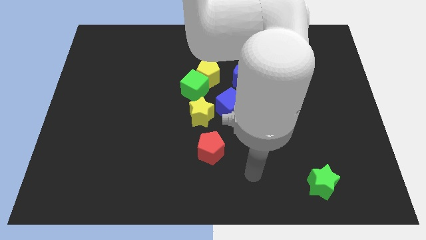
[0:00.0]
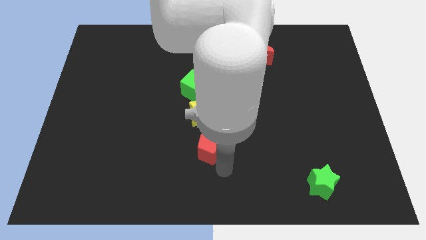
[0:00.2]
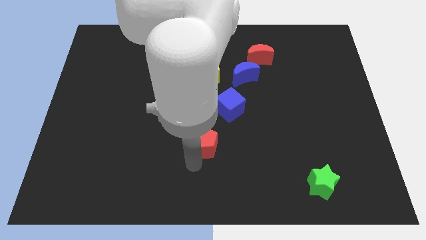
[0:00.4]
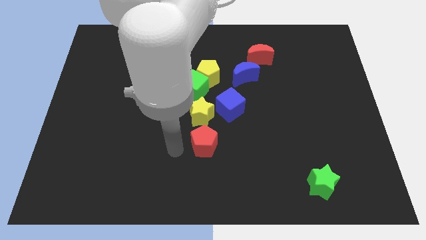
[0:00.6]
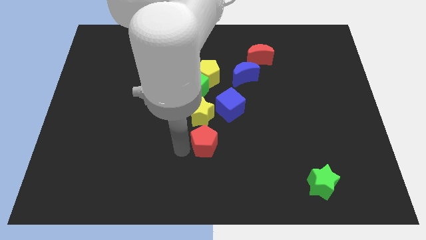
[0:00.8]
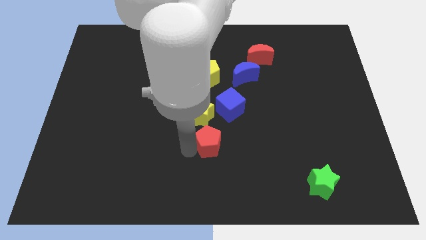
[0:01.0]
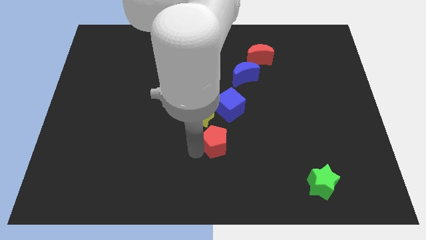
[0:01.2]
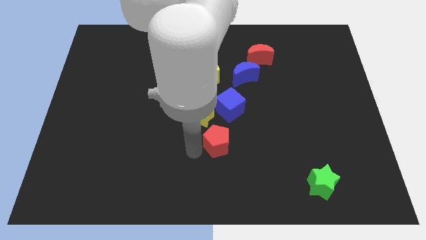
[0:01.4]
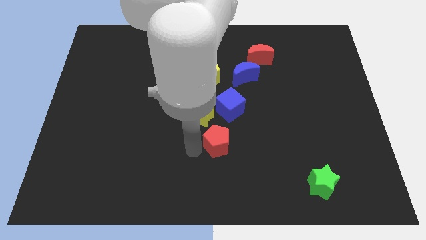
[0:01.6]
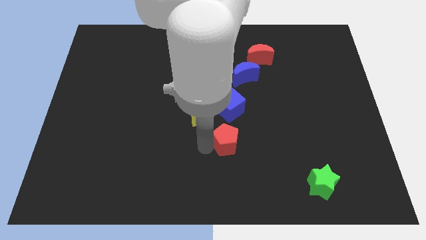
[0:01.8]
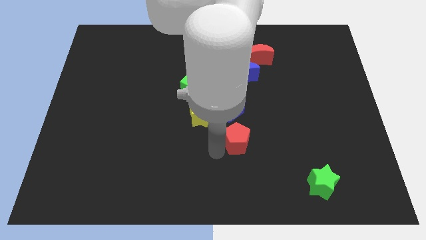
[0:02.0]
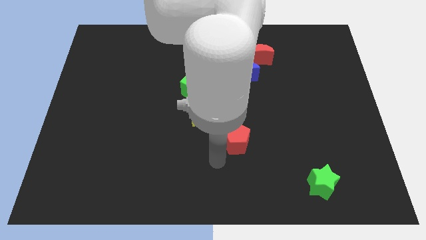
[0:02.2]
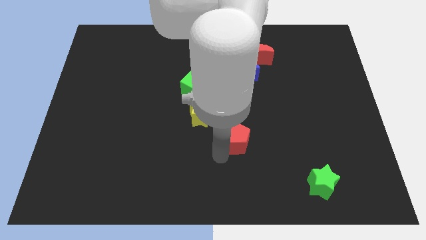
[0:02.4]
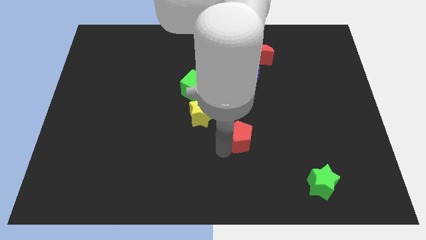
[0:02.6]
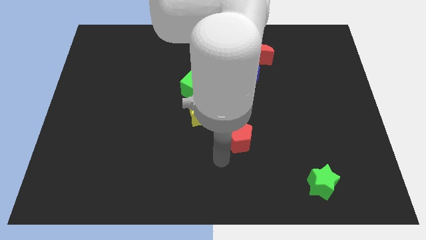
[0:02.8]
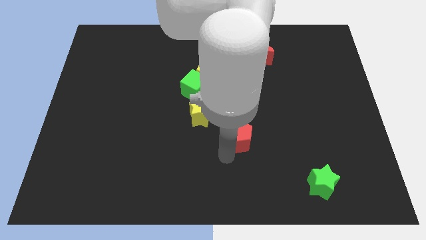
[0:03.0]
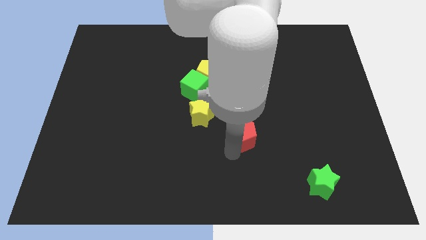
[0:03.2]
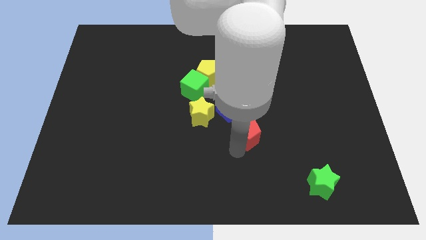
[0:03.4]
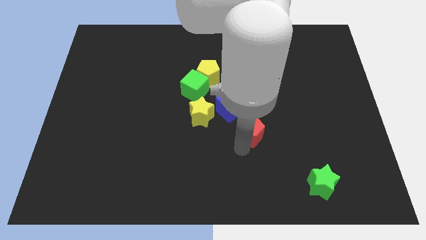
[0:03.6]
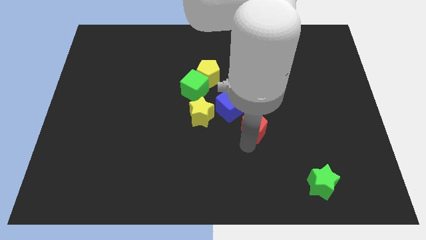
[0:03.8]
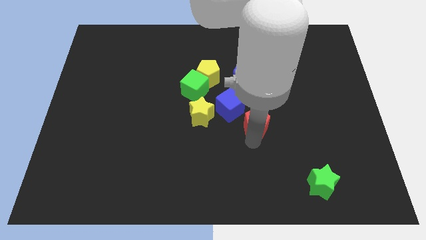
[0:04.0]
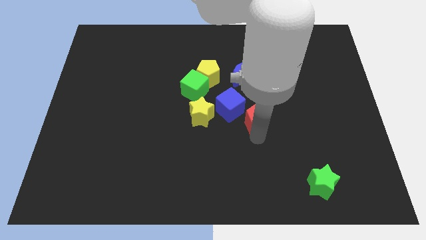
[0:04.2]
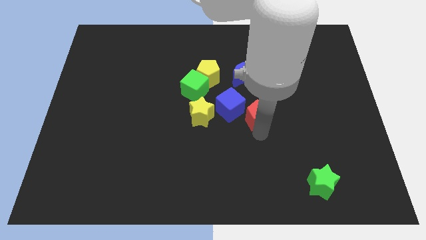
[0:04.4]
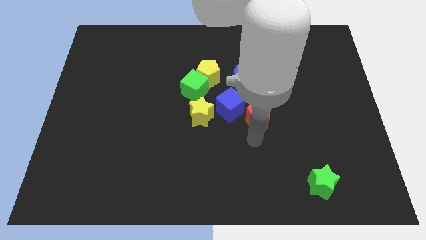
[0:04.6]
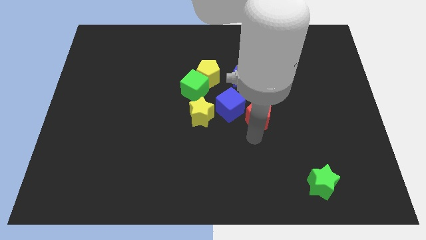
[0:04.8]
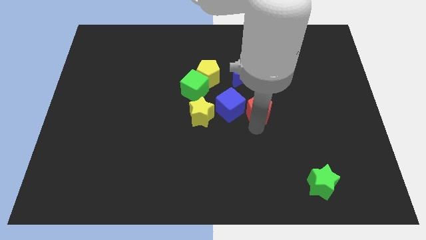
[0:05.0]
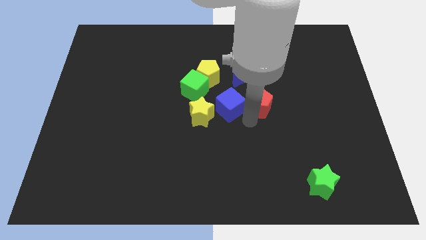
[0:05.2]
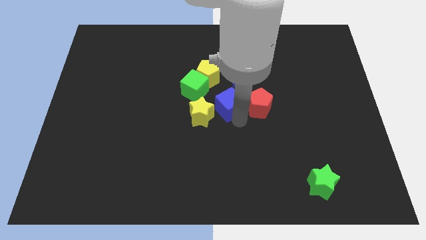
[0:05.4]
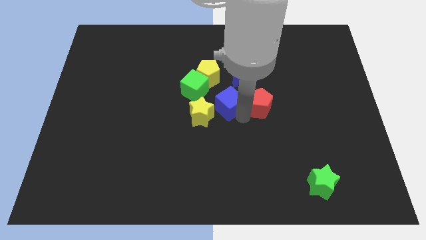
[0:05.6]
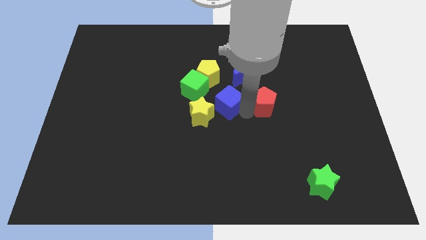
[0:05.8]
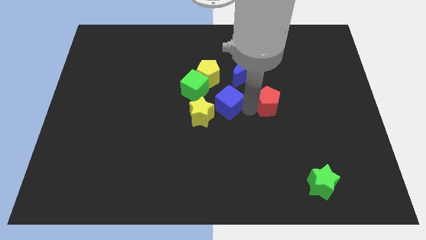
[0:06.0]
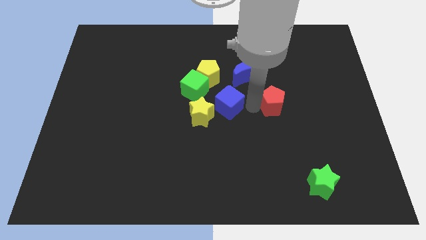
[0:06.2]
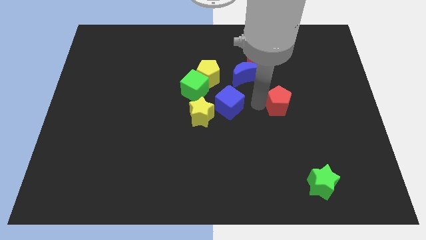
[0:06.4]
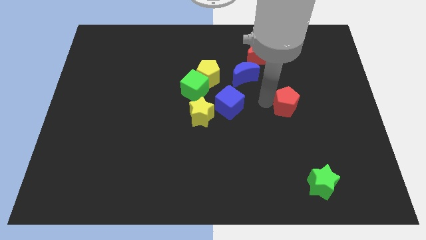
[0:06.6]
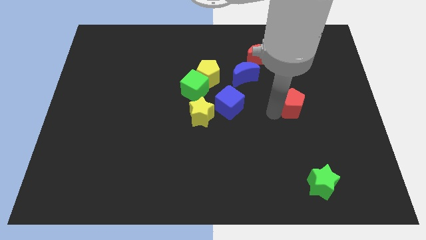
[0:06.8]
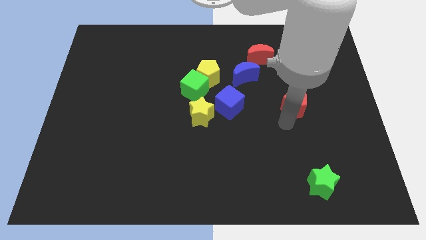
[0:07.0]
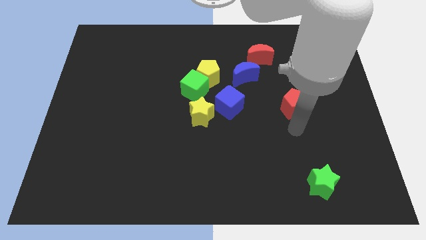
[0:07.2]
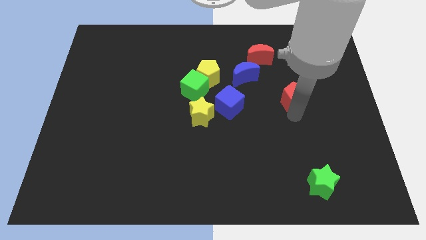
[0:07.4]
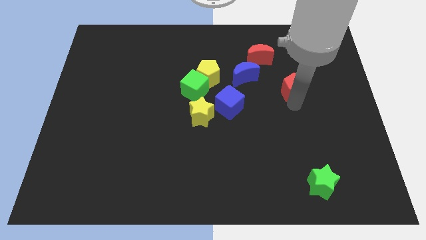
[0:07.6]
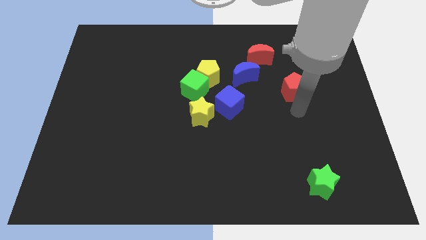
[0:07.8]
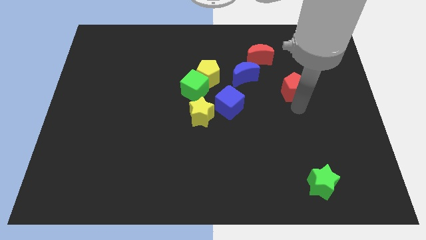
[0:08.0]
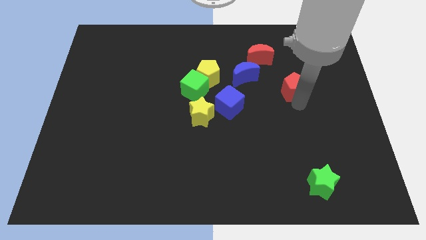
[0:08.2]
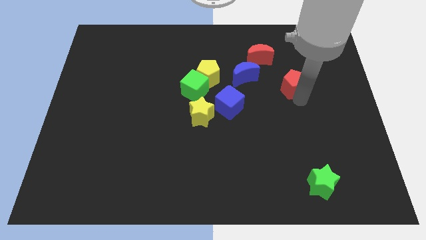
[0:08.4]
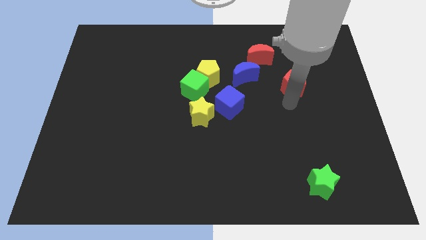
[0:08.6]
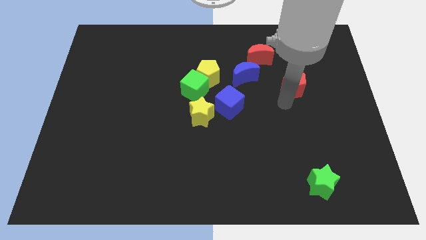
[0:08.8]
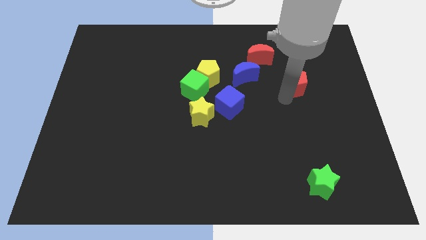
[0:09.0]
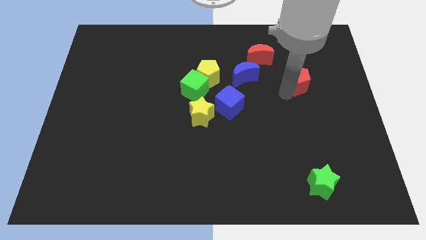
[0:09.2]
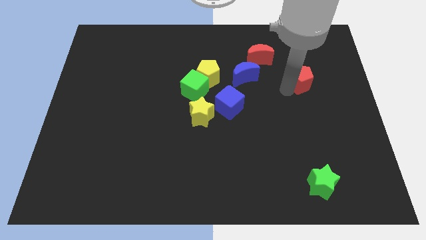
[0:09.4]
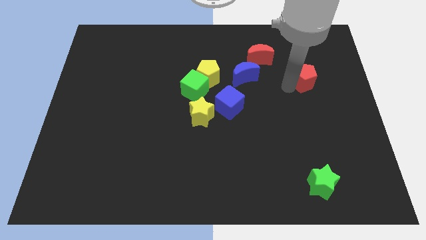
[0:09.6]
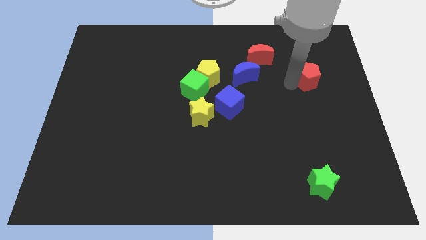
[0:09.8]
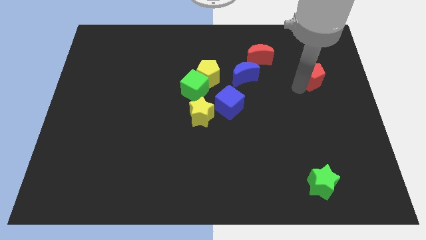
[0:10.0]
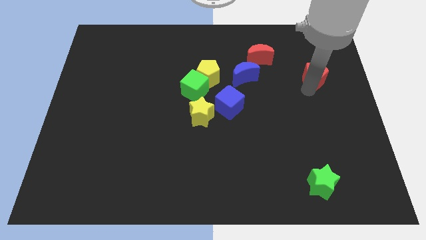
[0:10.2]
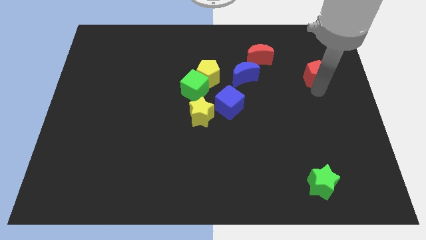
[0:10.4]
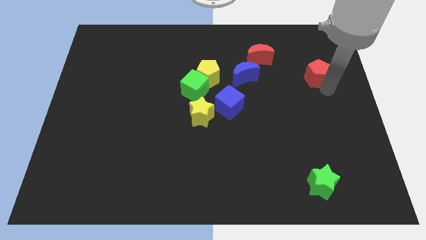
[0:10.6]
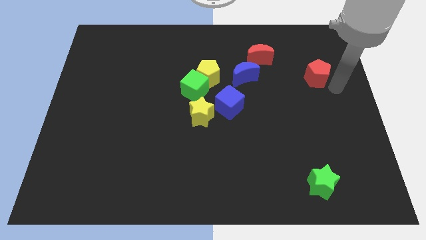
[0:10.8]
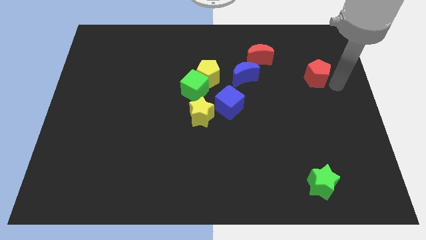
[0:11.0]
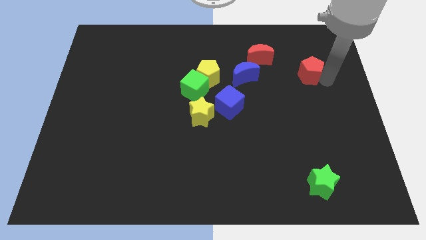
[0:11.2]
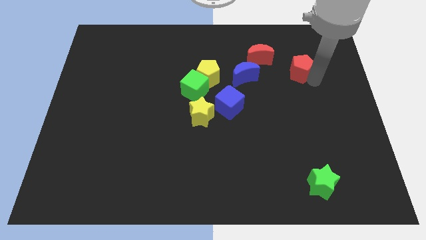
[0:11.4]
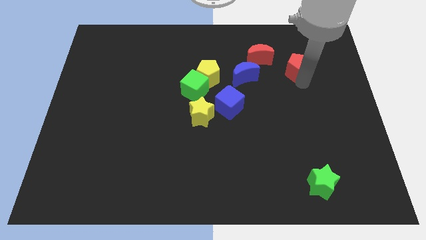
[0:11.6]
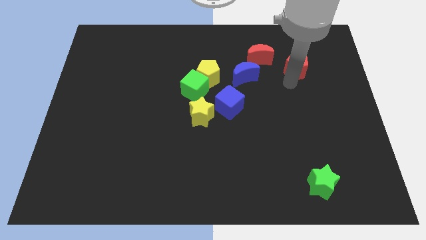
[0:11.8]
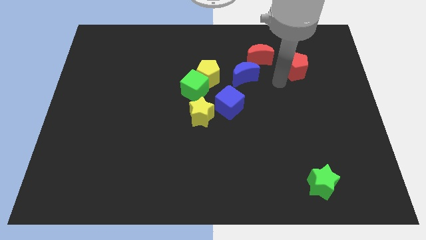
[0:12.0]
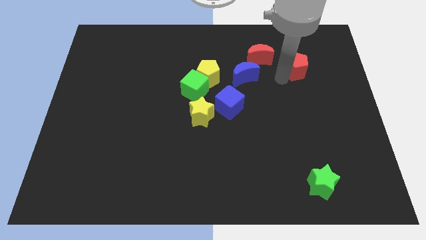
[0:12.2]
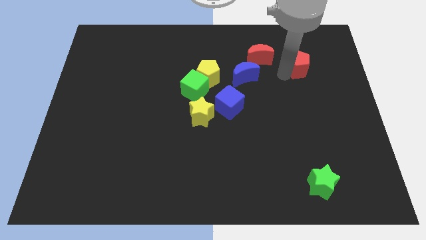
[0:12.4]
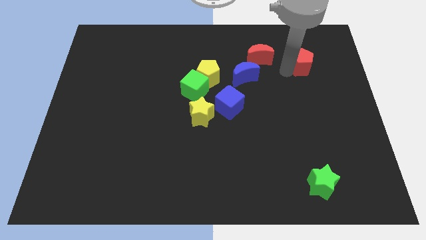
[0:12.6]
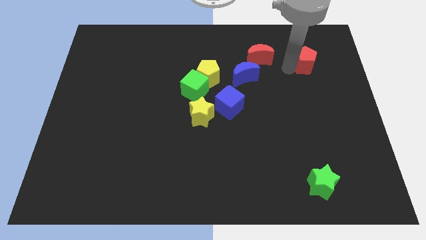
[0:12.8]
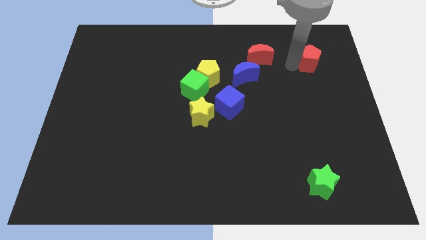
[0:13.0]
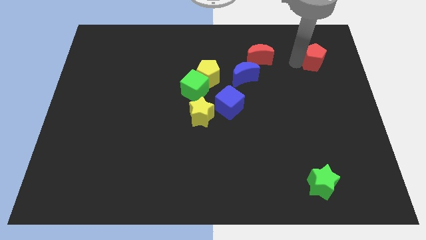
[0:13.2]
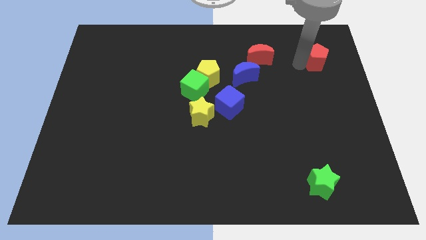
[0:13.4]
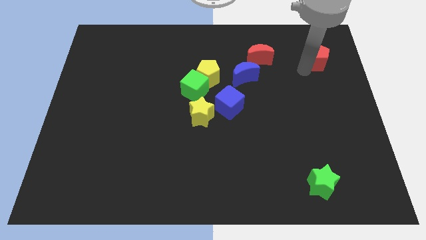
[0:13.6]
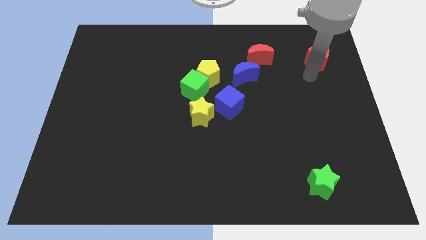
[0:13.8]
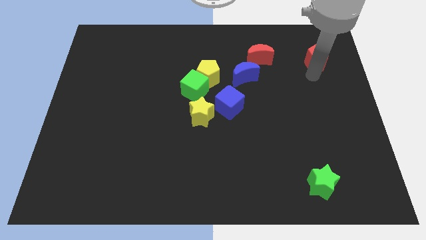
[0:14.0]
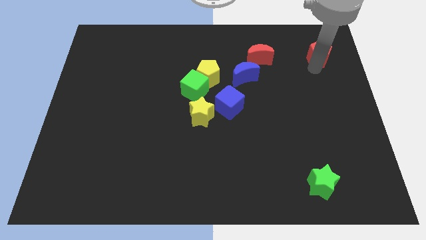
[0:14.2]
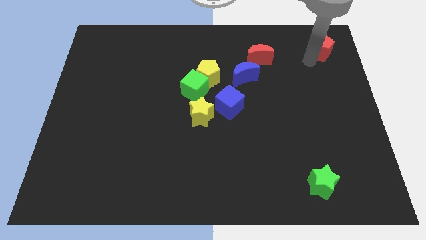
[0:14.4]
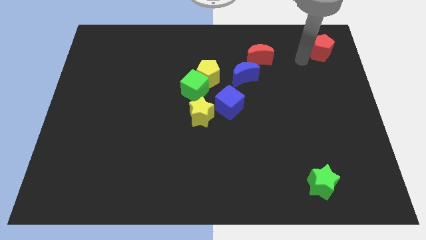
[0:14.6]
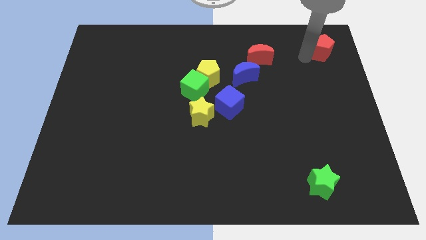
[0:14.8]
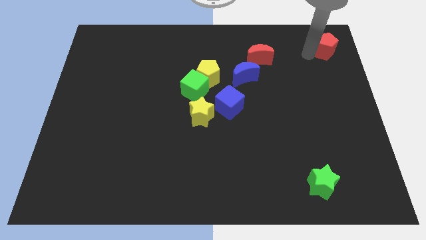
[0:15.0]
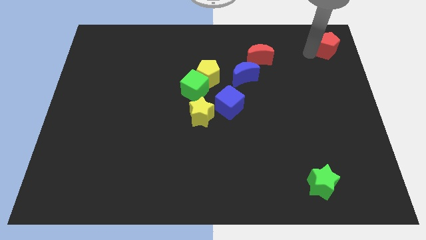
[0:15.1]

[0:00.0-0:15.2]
put the red pentagon to the top right
